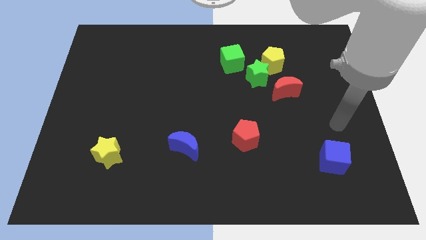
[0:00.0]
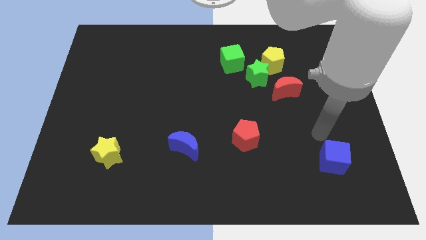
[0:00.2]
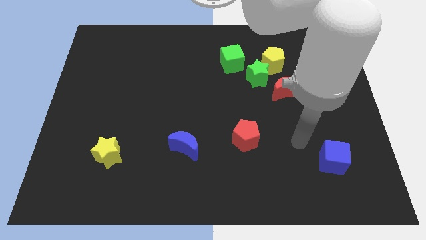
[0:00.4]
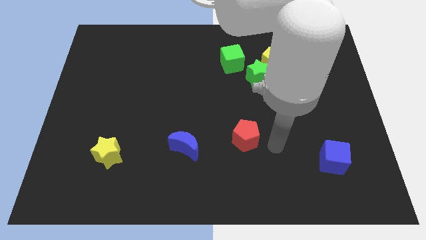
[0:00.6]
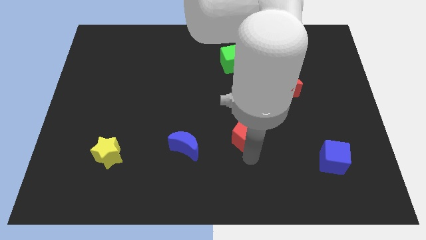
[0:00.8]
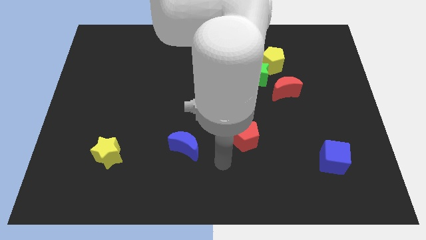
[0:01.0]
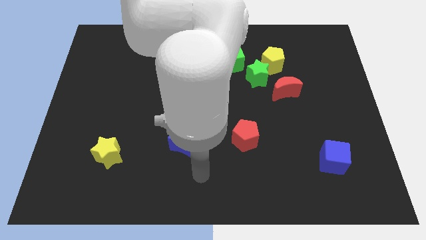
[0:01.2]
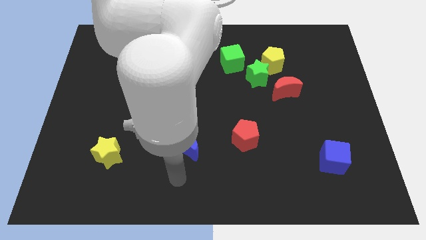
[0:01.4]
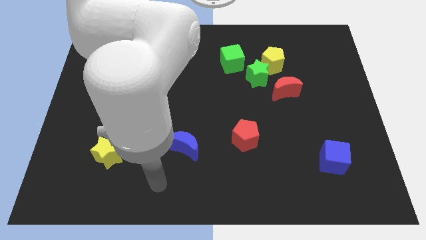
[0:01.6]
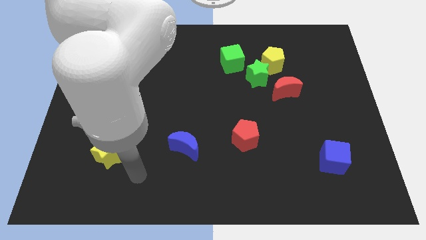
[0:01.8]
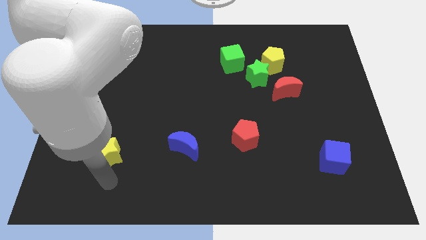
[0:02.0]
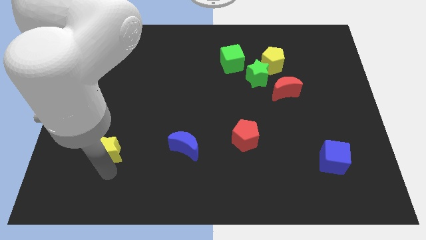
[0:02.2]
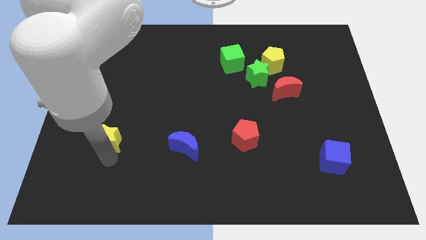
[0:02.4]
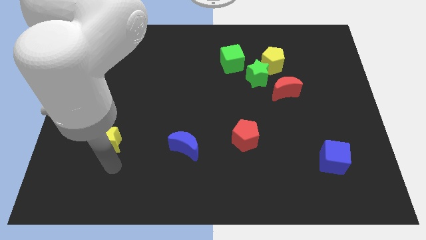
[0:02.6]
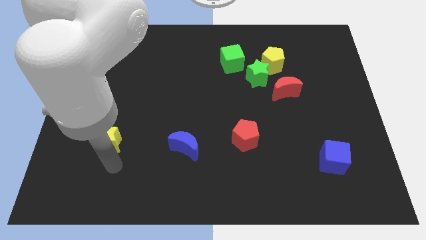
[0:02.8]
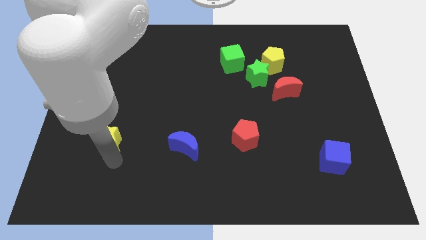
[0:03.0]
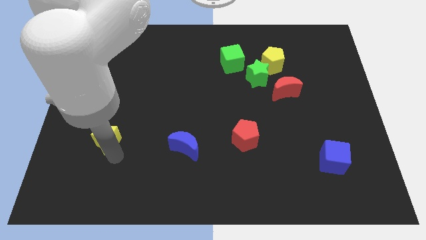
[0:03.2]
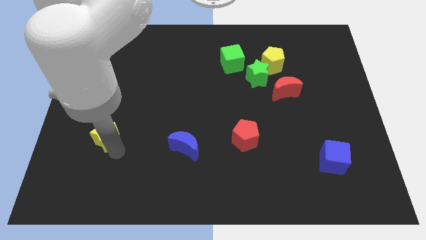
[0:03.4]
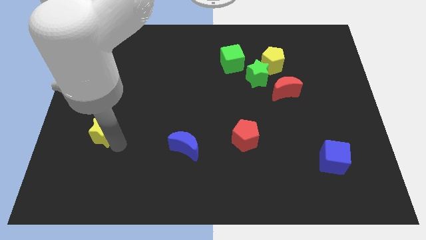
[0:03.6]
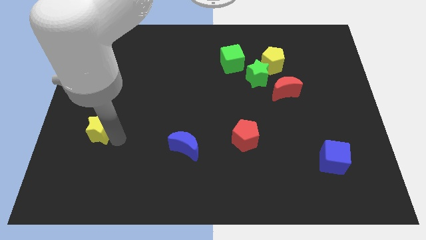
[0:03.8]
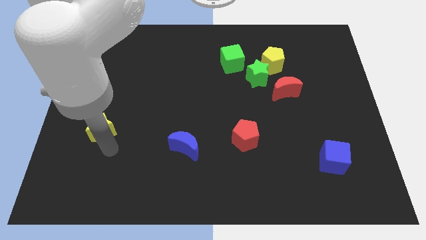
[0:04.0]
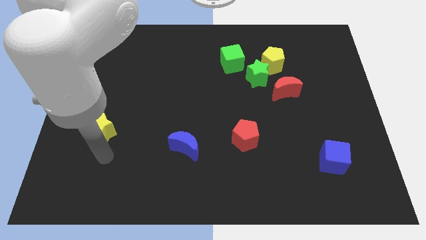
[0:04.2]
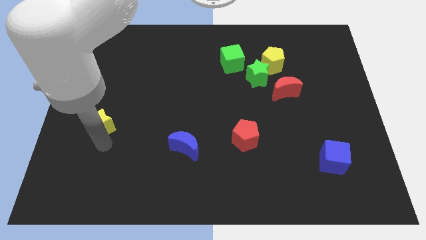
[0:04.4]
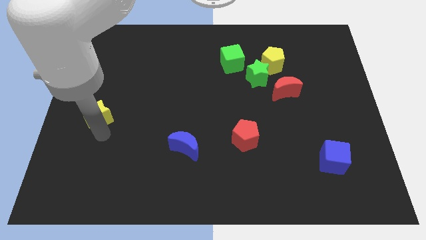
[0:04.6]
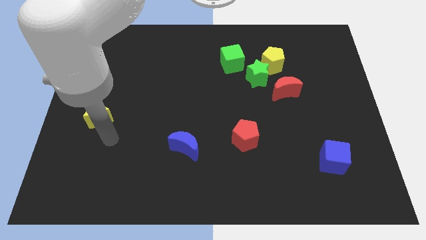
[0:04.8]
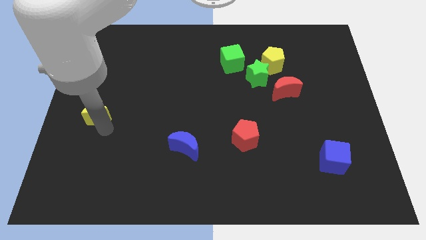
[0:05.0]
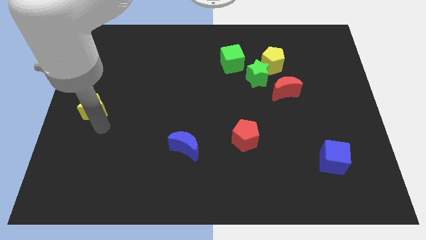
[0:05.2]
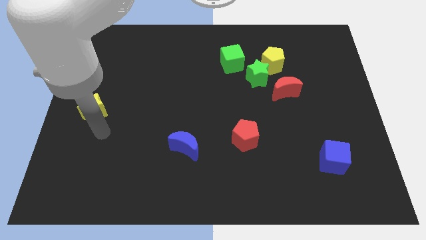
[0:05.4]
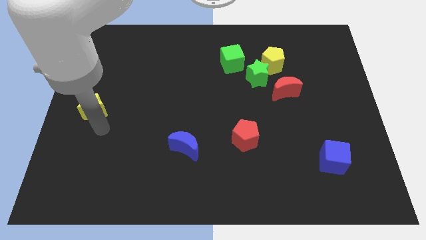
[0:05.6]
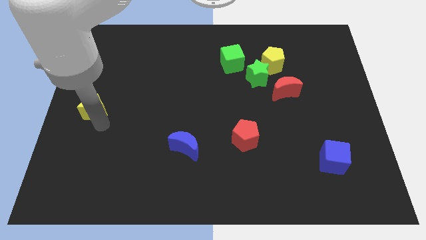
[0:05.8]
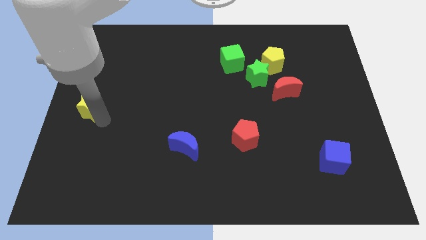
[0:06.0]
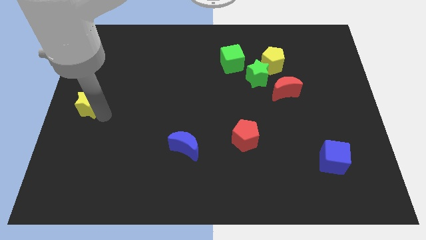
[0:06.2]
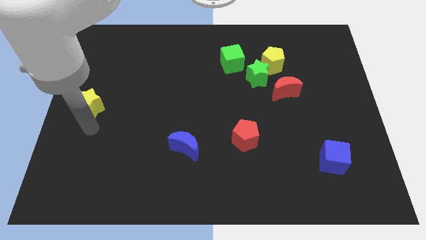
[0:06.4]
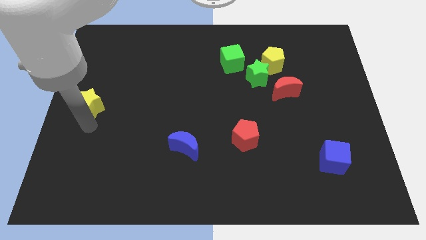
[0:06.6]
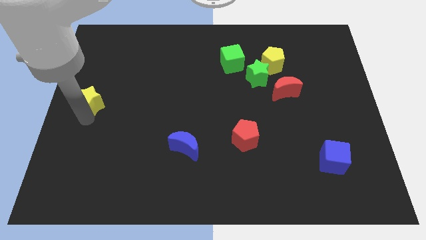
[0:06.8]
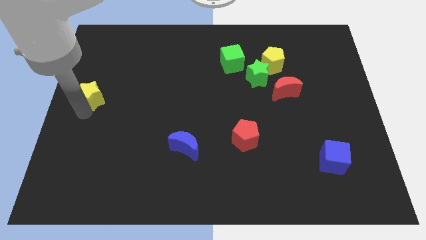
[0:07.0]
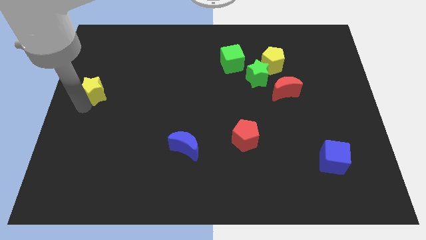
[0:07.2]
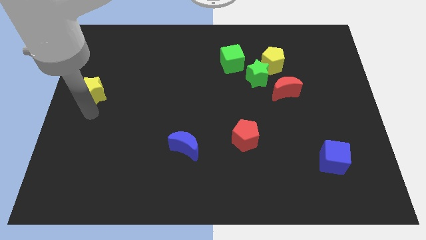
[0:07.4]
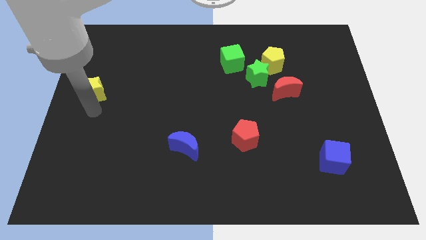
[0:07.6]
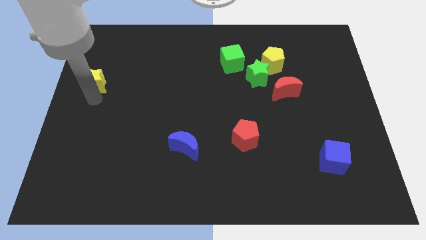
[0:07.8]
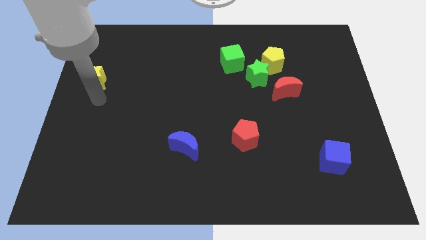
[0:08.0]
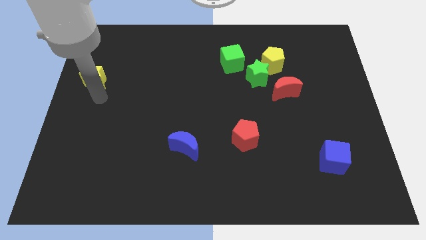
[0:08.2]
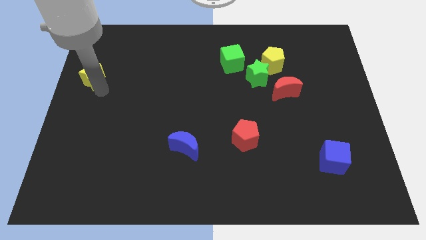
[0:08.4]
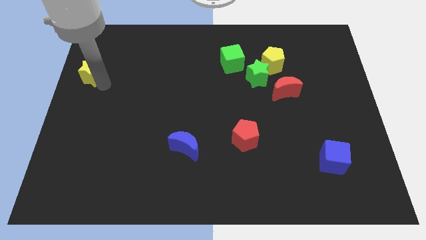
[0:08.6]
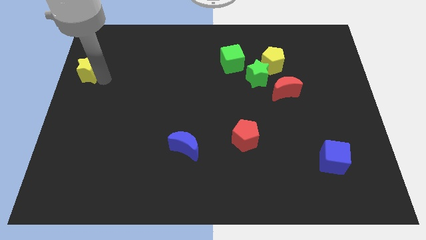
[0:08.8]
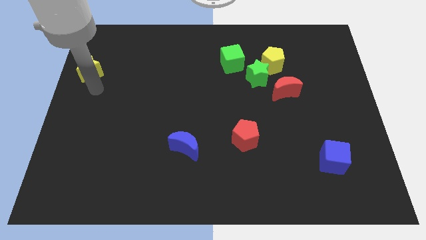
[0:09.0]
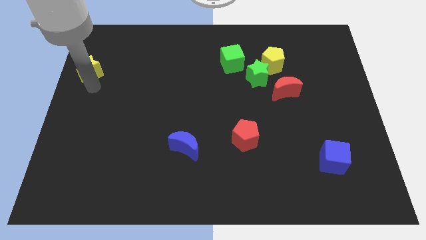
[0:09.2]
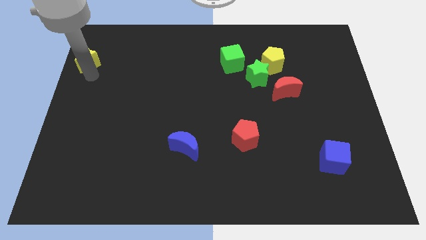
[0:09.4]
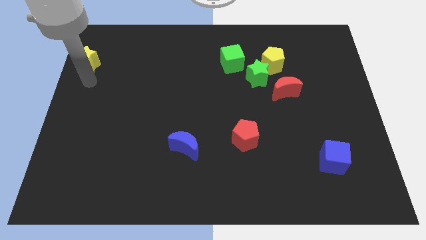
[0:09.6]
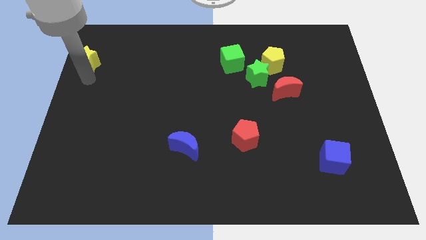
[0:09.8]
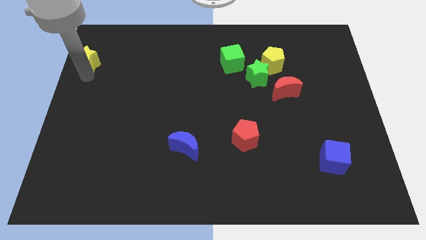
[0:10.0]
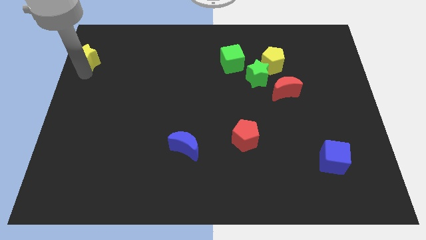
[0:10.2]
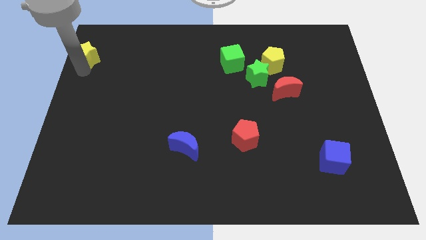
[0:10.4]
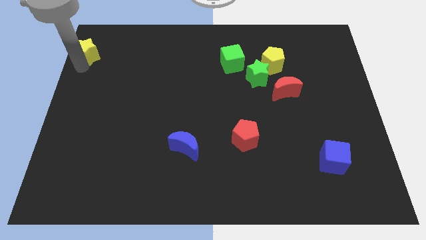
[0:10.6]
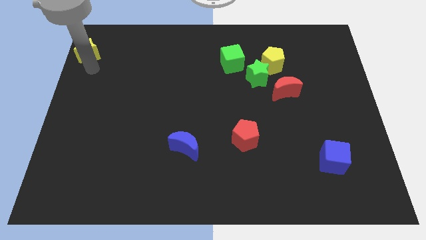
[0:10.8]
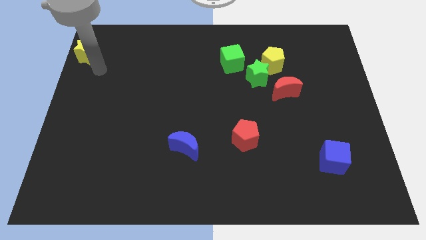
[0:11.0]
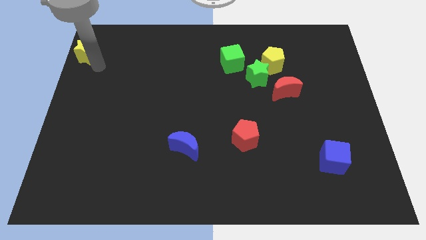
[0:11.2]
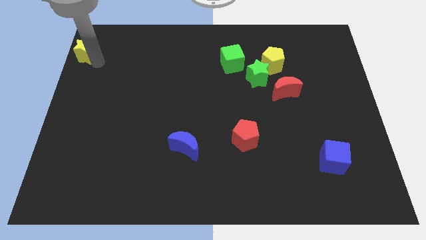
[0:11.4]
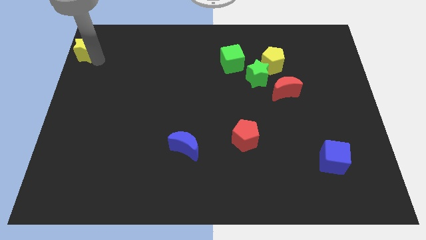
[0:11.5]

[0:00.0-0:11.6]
put the yellow star to the upper left corner
